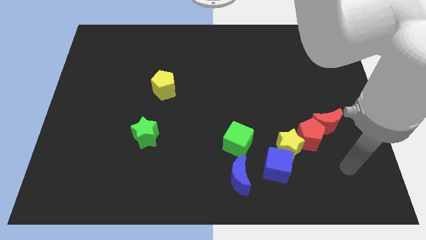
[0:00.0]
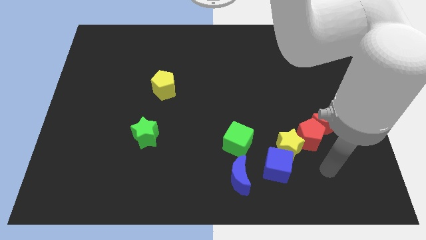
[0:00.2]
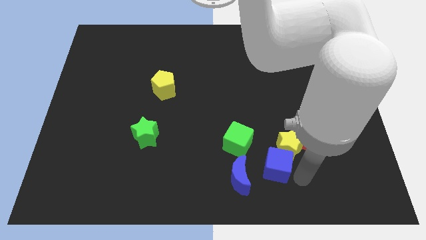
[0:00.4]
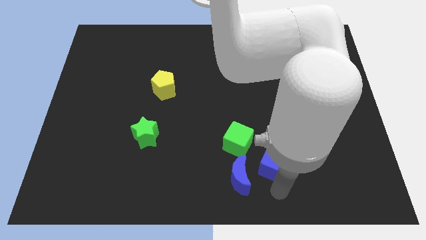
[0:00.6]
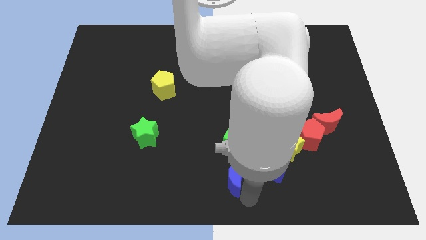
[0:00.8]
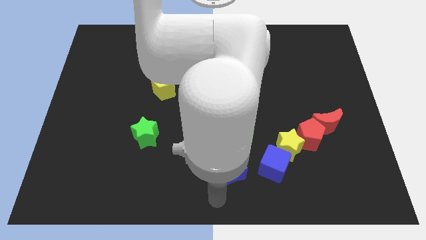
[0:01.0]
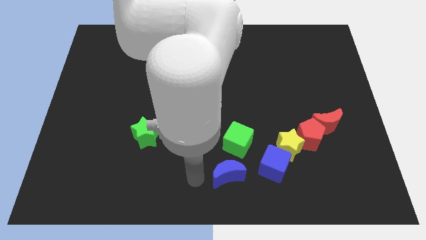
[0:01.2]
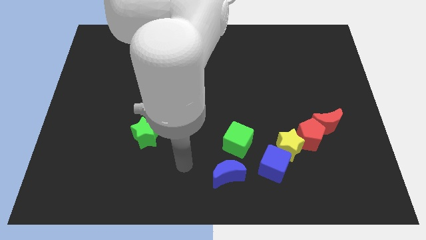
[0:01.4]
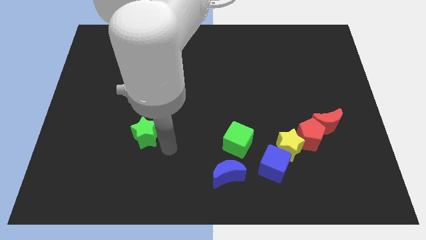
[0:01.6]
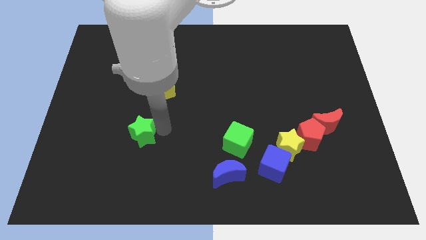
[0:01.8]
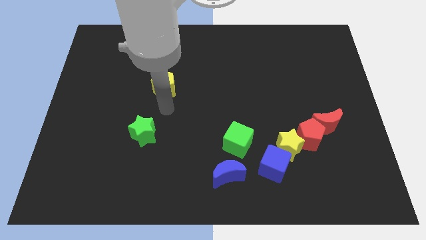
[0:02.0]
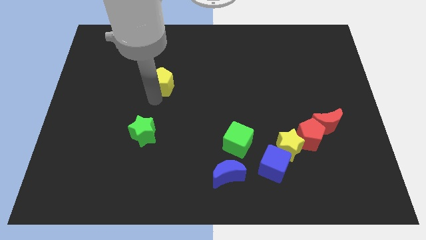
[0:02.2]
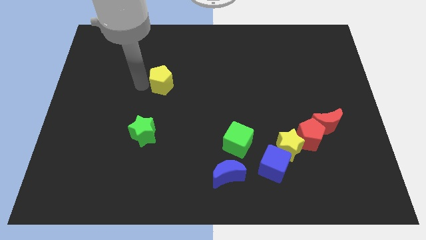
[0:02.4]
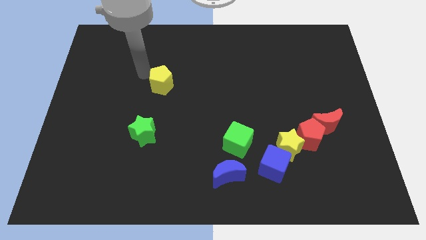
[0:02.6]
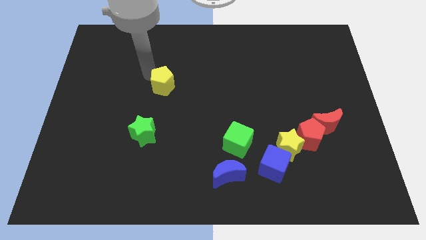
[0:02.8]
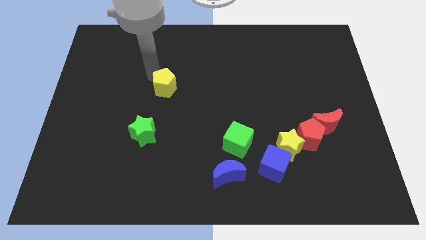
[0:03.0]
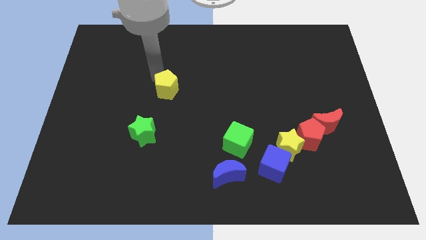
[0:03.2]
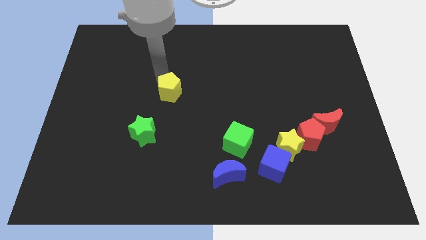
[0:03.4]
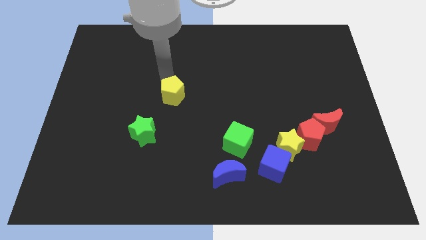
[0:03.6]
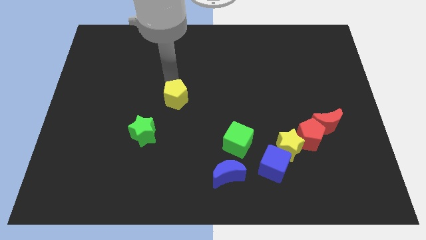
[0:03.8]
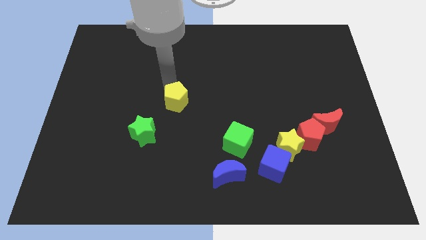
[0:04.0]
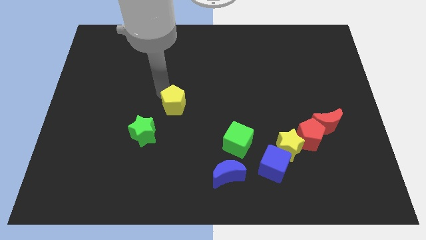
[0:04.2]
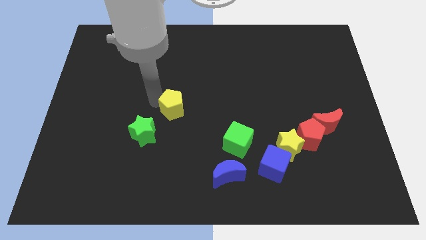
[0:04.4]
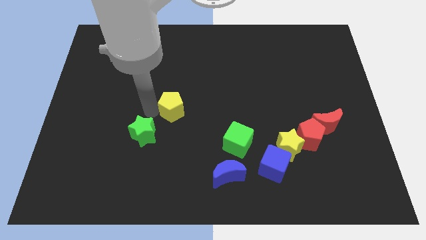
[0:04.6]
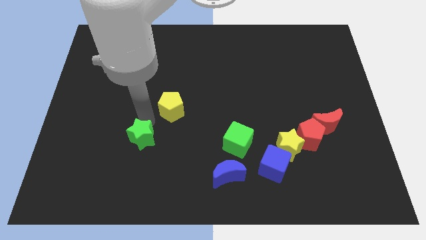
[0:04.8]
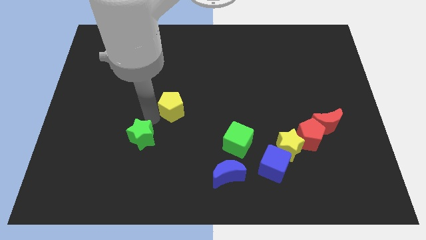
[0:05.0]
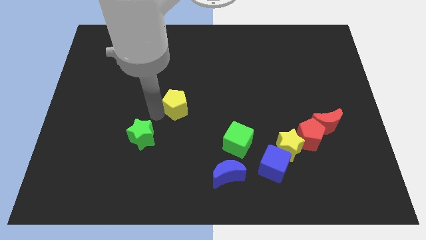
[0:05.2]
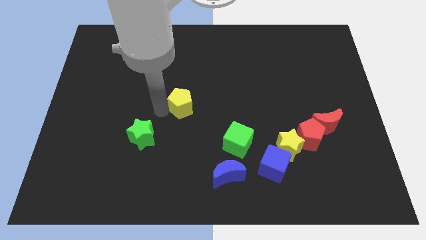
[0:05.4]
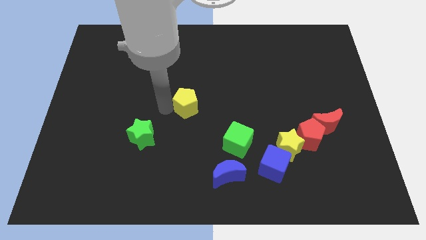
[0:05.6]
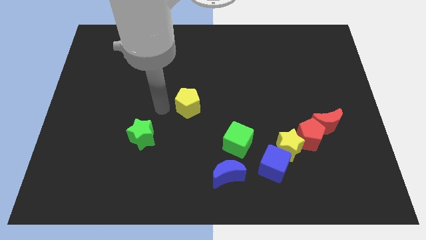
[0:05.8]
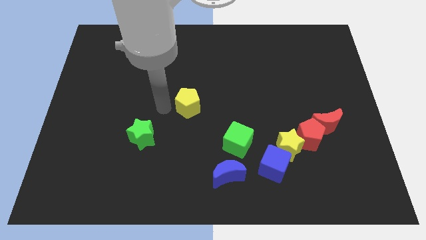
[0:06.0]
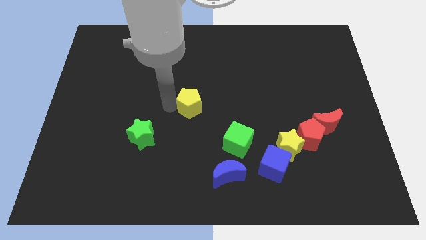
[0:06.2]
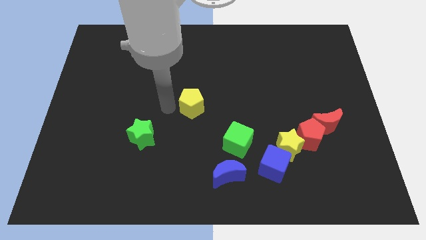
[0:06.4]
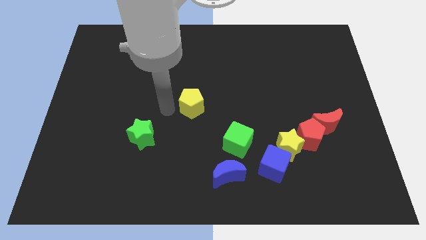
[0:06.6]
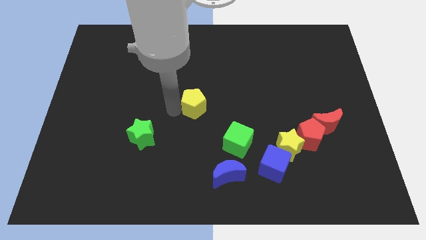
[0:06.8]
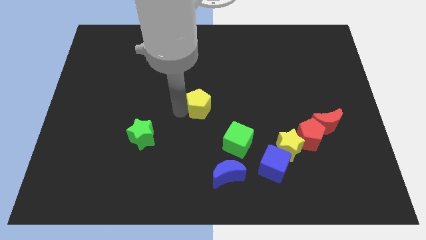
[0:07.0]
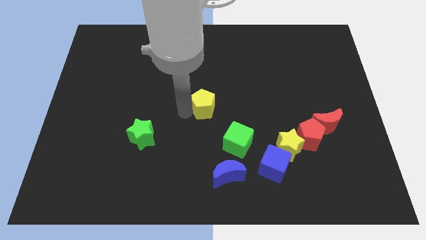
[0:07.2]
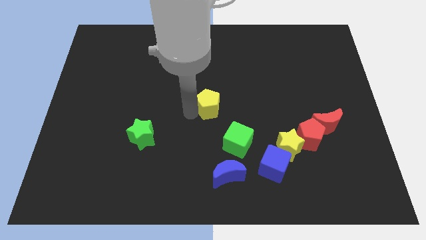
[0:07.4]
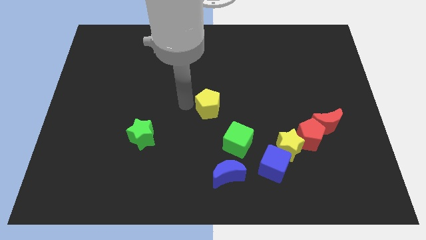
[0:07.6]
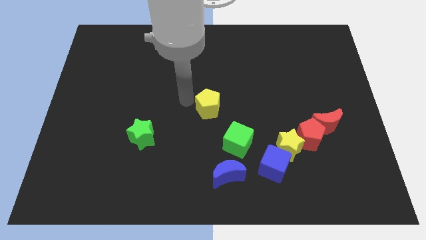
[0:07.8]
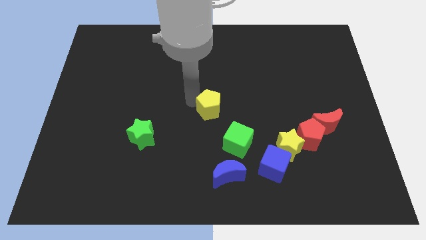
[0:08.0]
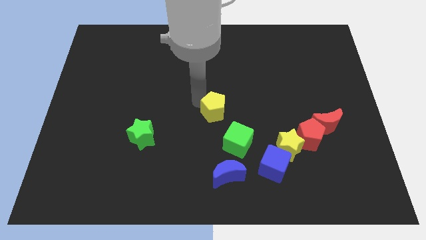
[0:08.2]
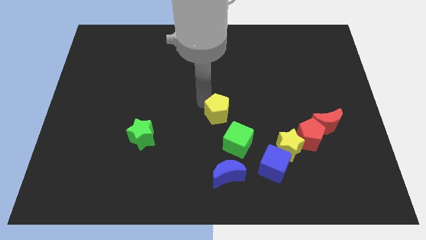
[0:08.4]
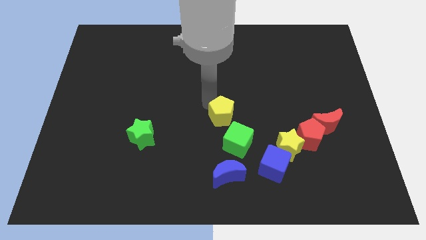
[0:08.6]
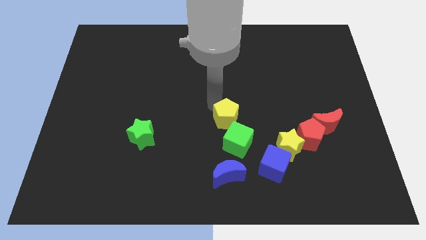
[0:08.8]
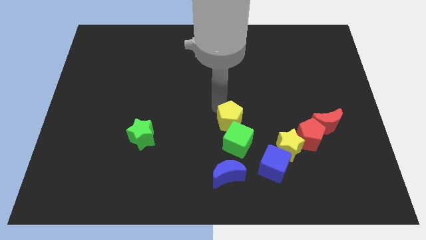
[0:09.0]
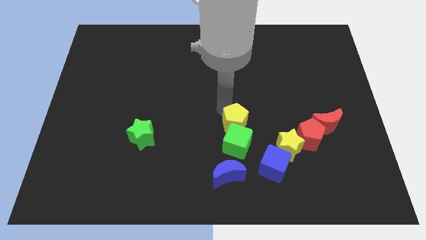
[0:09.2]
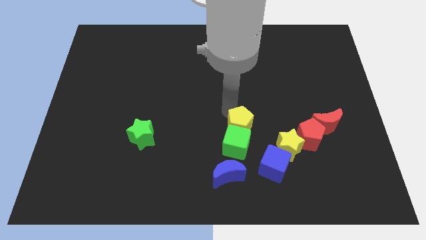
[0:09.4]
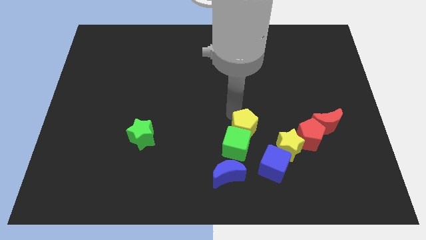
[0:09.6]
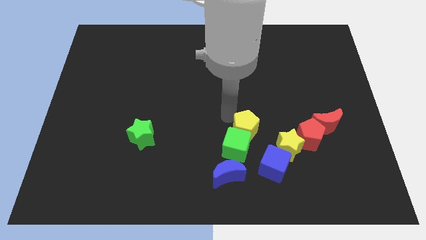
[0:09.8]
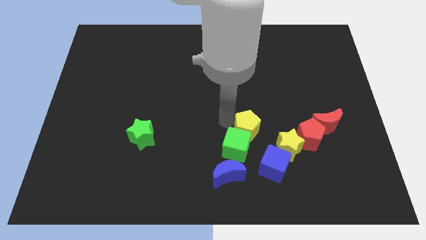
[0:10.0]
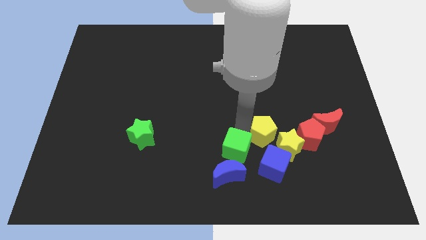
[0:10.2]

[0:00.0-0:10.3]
slide the yellow pentagon next to the yellow star

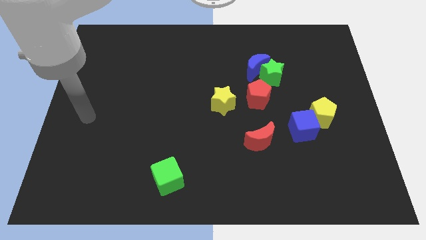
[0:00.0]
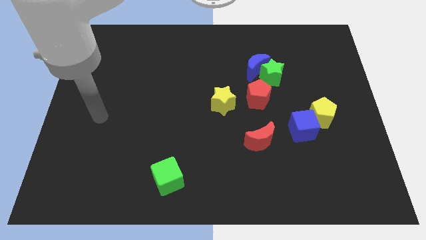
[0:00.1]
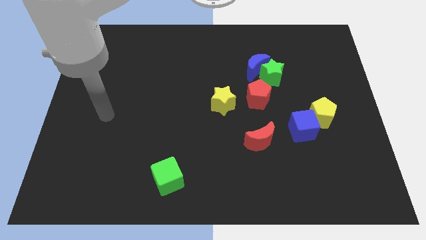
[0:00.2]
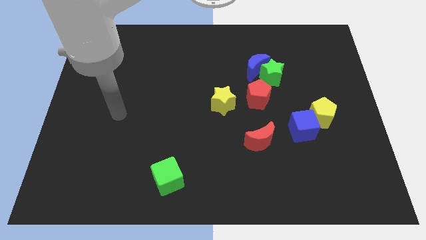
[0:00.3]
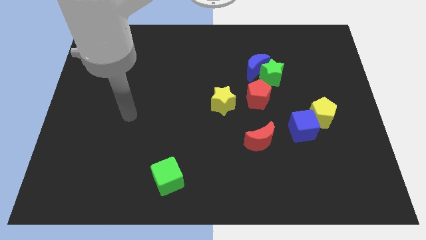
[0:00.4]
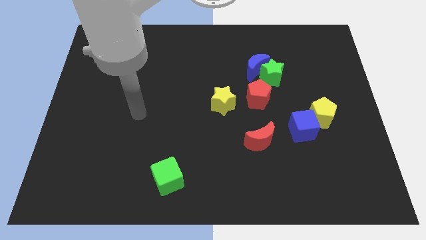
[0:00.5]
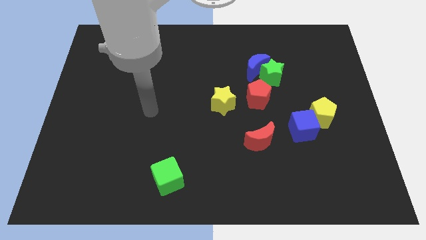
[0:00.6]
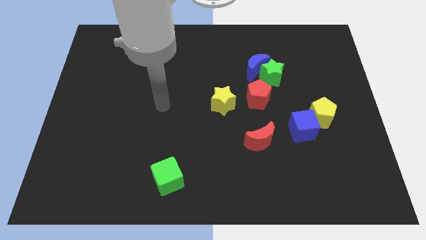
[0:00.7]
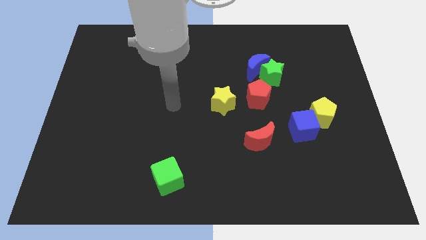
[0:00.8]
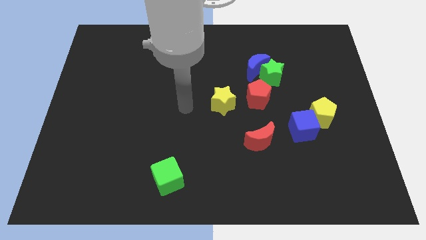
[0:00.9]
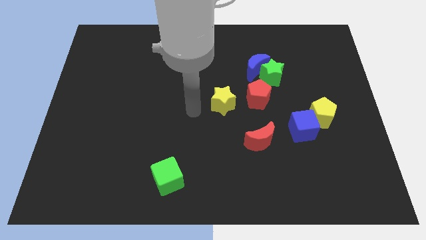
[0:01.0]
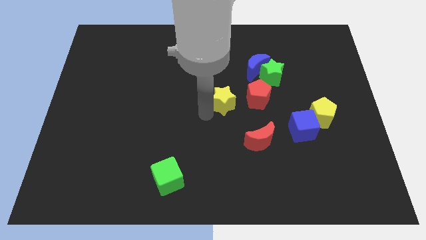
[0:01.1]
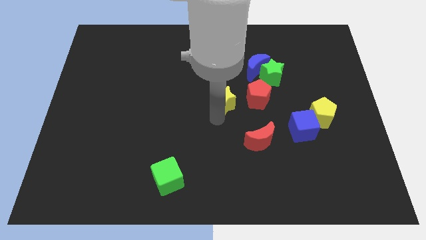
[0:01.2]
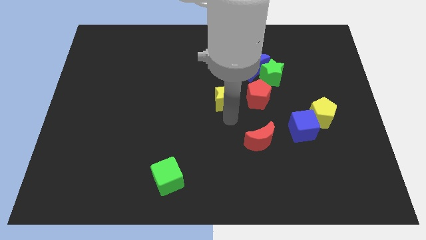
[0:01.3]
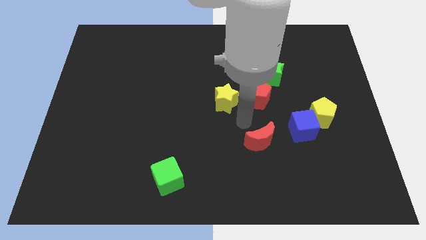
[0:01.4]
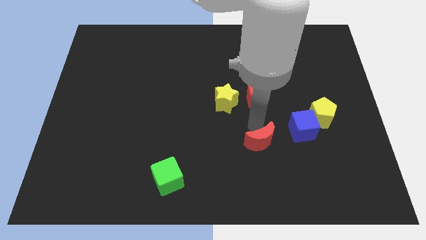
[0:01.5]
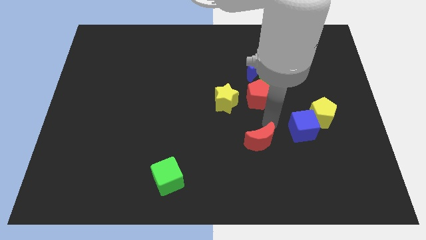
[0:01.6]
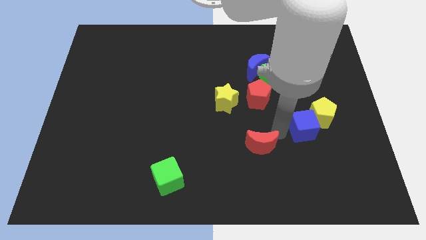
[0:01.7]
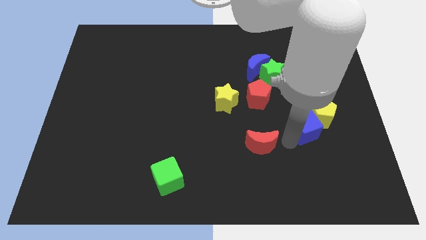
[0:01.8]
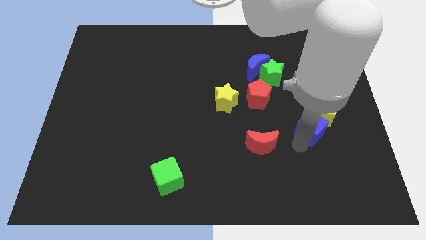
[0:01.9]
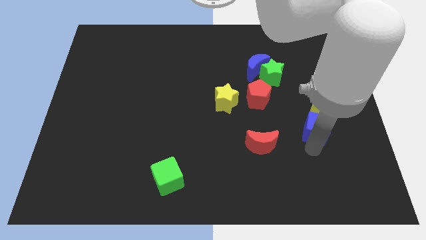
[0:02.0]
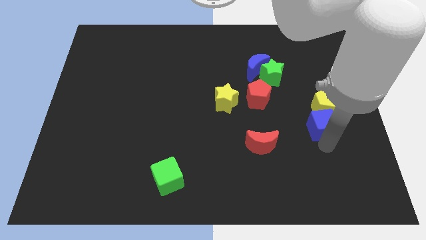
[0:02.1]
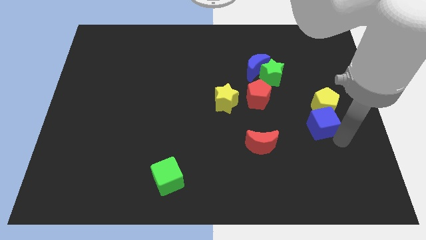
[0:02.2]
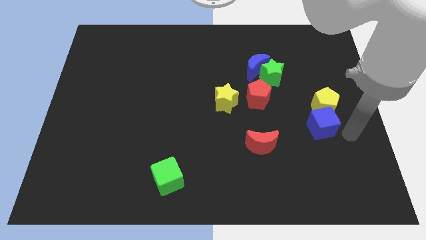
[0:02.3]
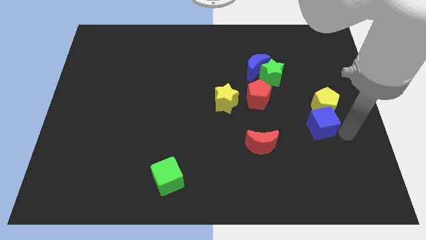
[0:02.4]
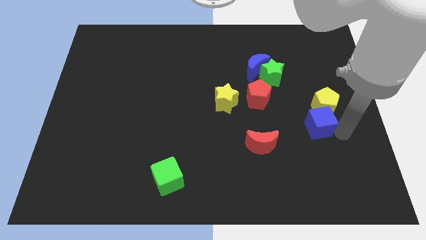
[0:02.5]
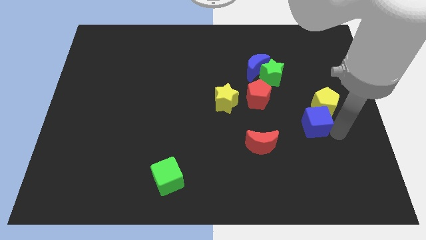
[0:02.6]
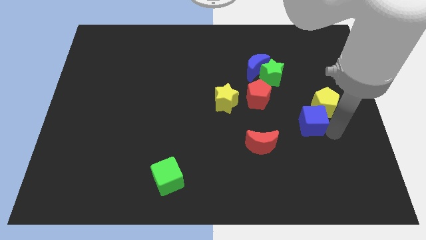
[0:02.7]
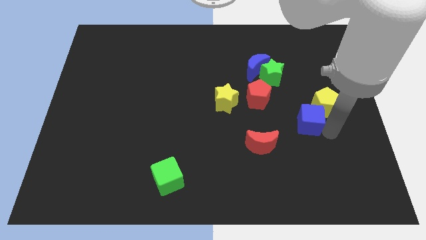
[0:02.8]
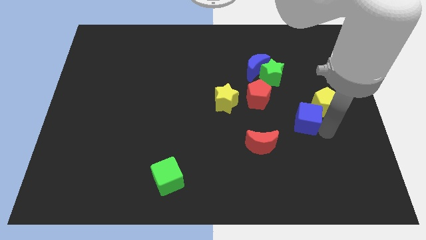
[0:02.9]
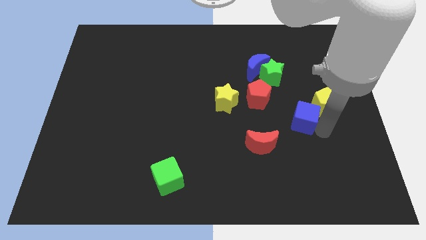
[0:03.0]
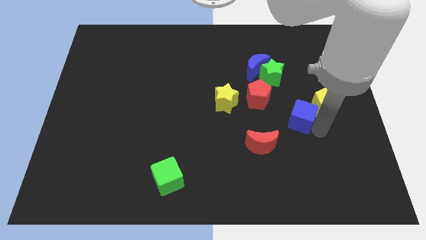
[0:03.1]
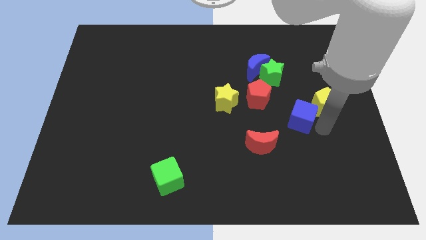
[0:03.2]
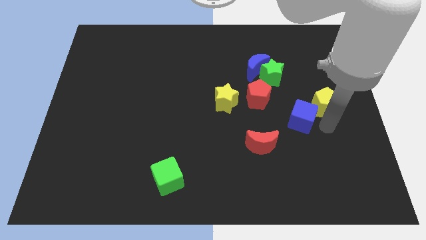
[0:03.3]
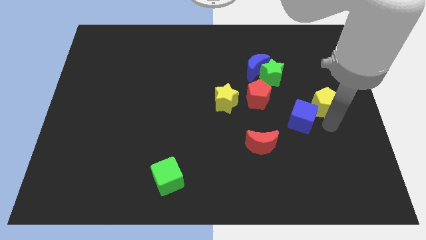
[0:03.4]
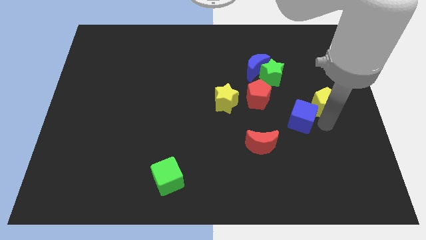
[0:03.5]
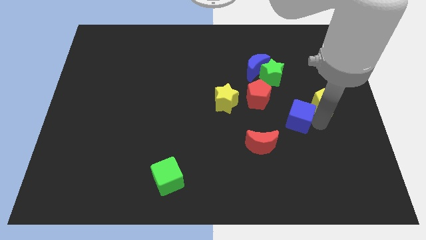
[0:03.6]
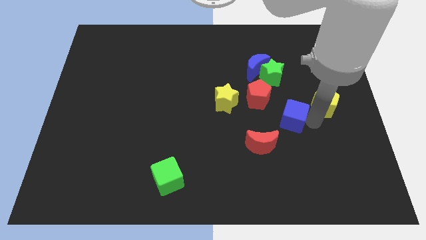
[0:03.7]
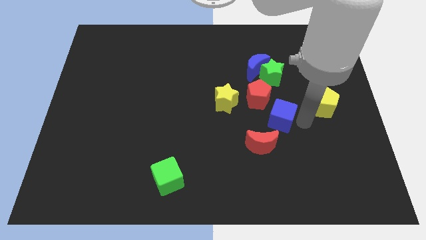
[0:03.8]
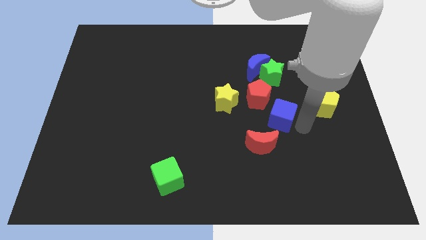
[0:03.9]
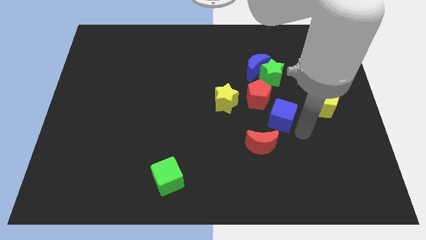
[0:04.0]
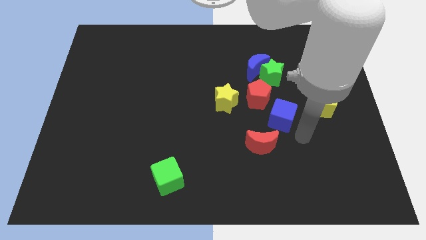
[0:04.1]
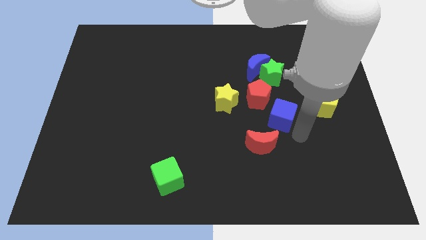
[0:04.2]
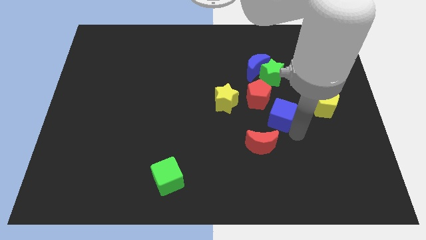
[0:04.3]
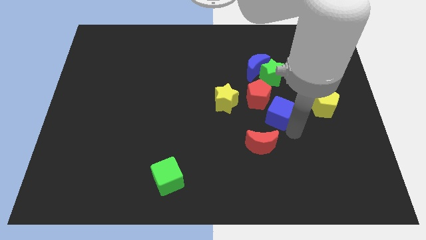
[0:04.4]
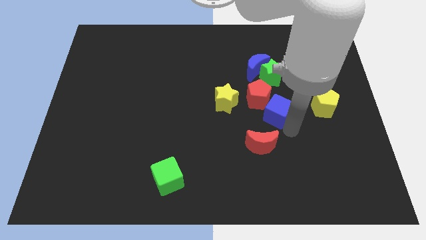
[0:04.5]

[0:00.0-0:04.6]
put the blue cube to the red pentagon
